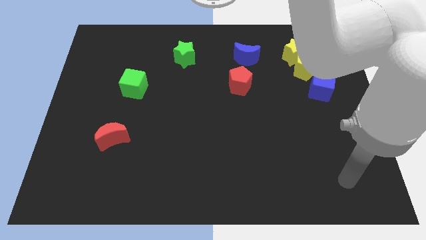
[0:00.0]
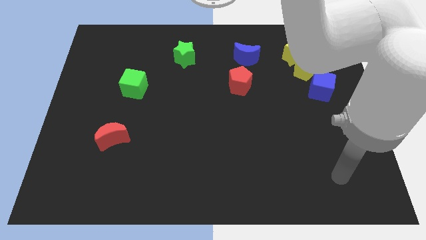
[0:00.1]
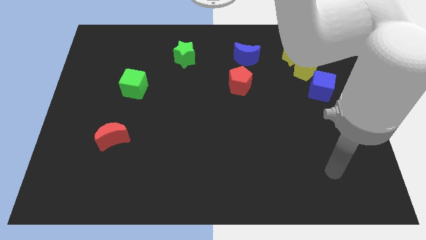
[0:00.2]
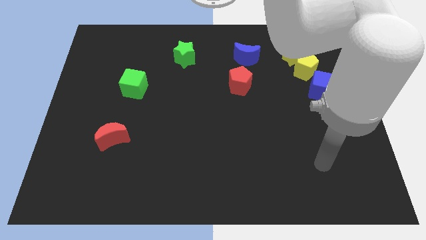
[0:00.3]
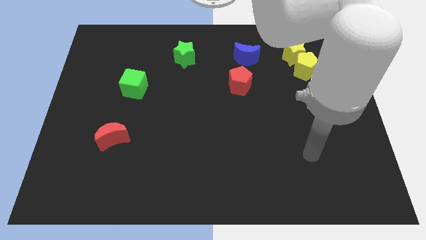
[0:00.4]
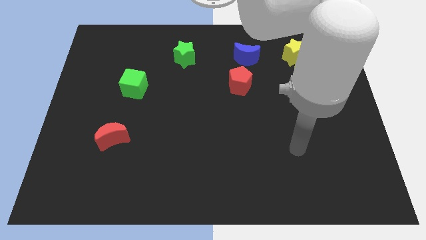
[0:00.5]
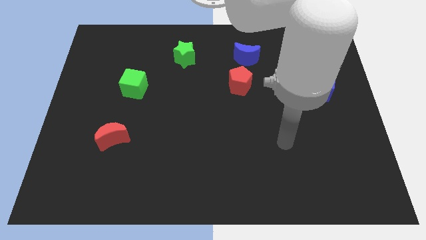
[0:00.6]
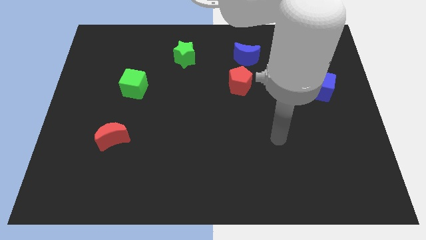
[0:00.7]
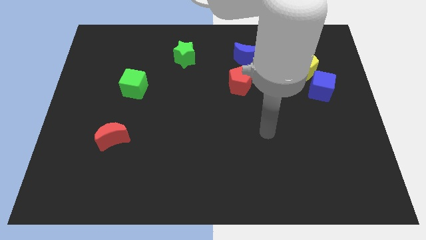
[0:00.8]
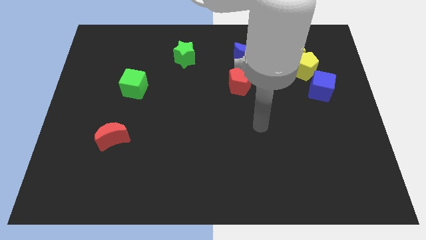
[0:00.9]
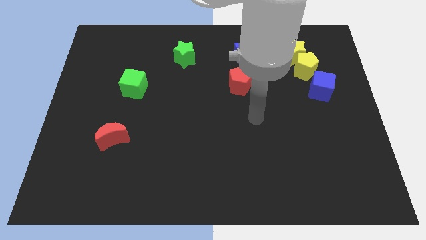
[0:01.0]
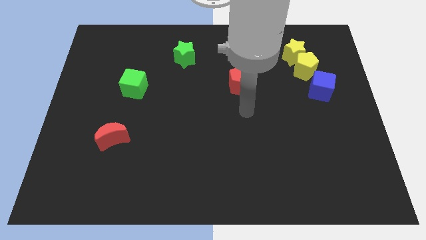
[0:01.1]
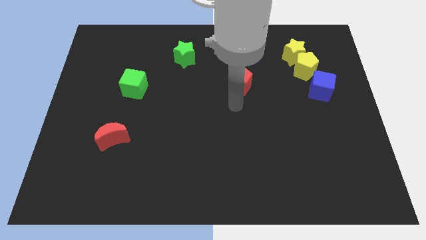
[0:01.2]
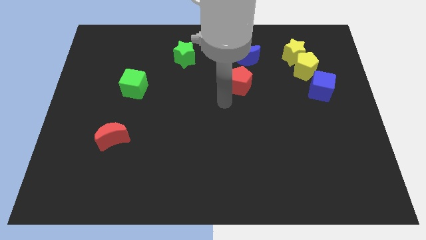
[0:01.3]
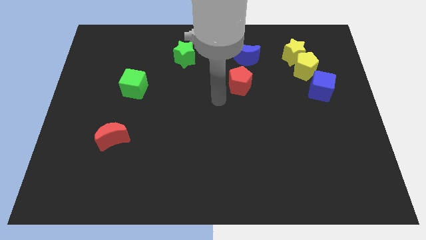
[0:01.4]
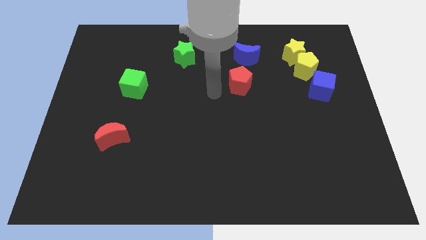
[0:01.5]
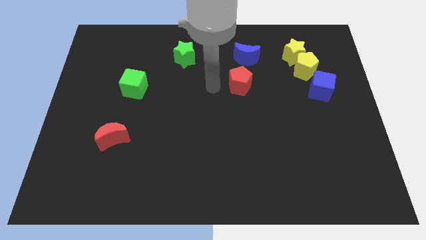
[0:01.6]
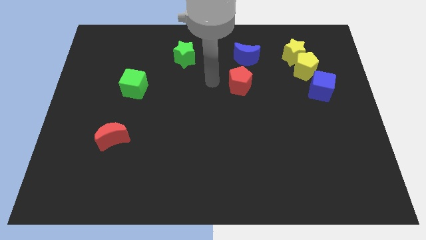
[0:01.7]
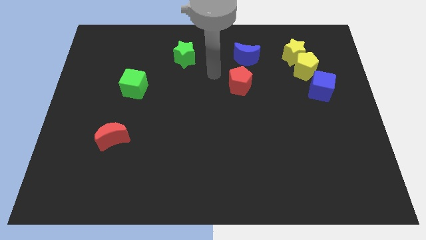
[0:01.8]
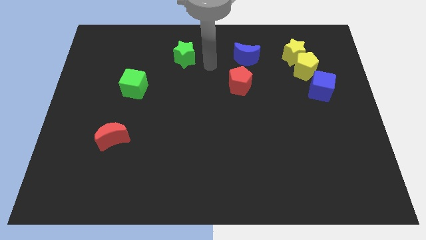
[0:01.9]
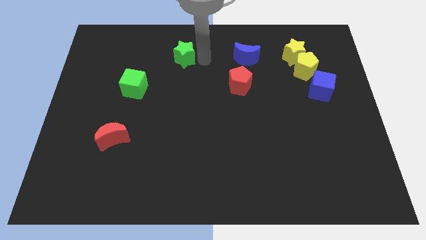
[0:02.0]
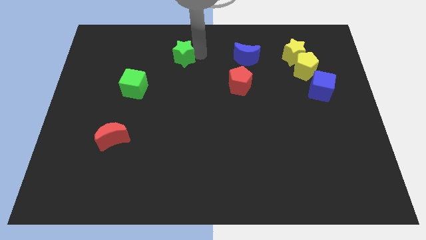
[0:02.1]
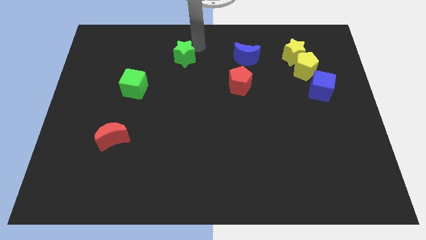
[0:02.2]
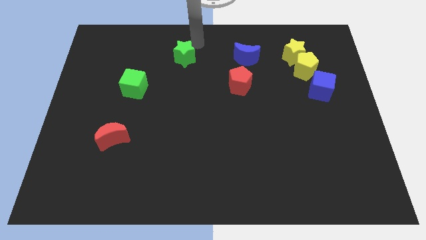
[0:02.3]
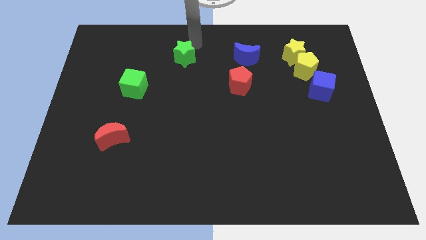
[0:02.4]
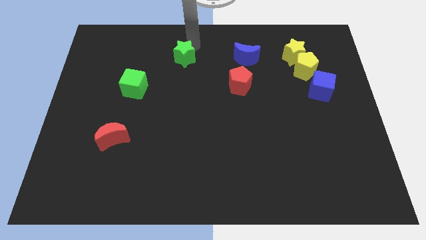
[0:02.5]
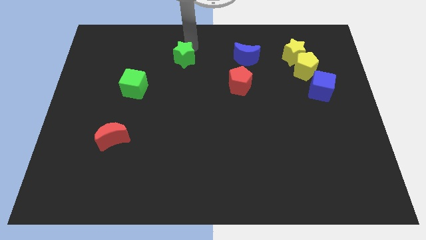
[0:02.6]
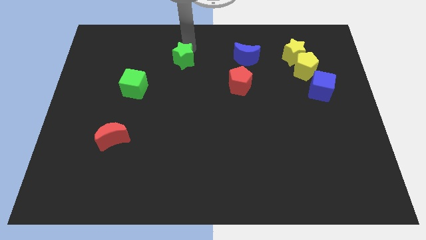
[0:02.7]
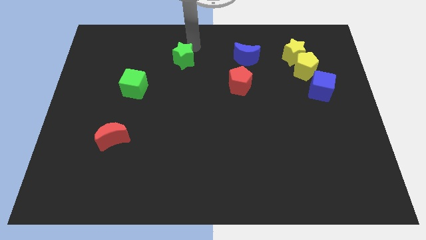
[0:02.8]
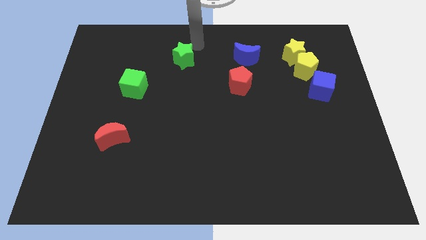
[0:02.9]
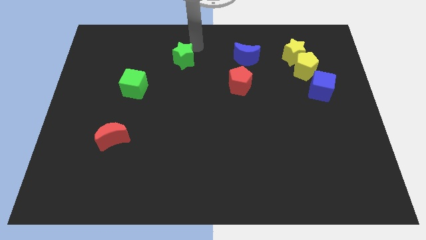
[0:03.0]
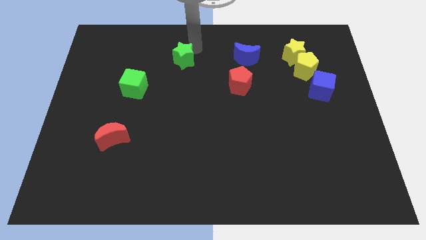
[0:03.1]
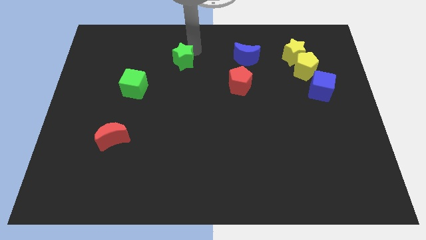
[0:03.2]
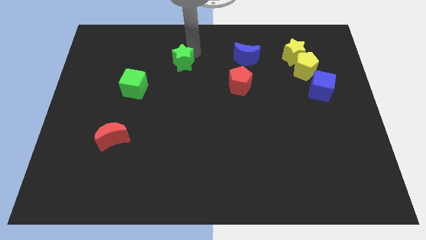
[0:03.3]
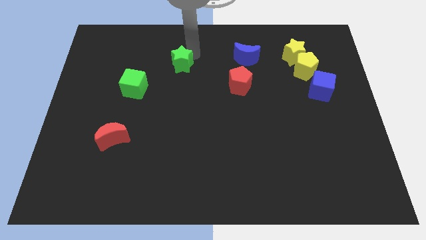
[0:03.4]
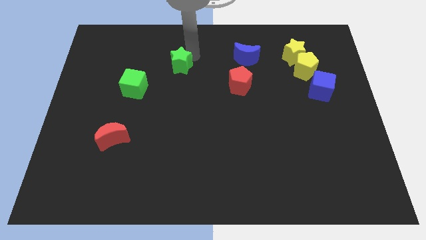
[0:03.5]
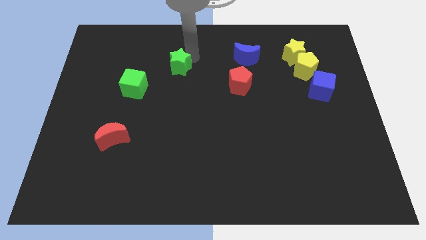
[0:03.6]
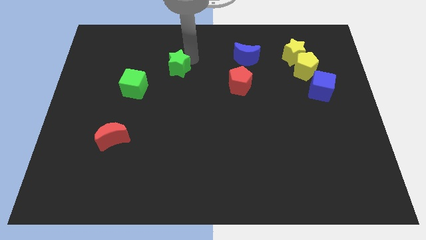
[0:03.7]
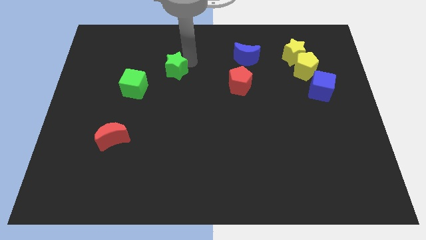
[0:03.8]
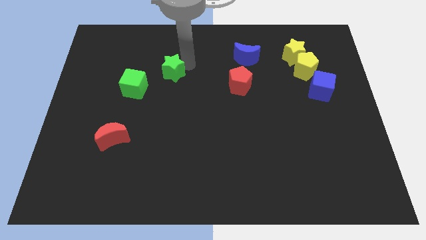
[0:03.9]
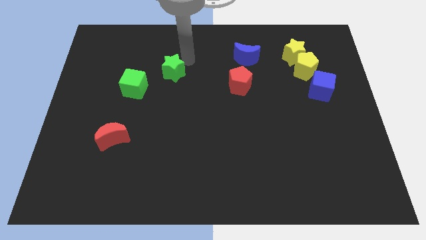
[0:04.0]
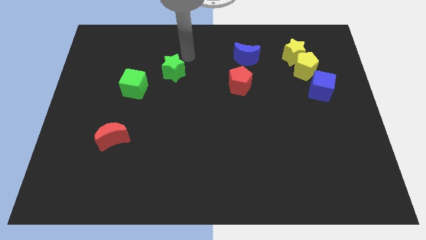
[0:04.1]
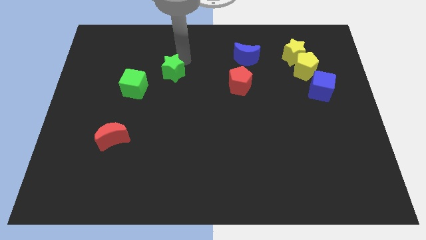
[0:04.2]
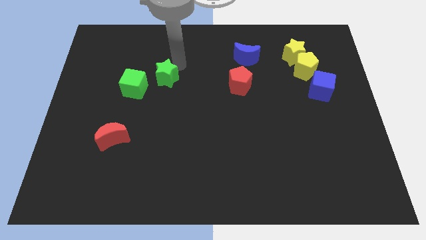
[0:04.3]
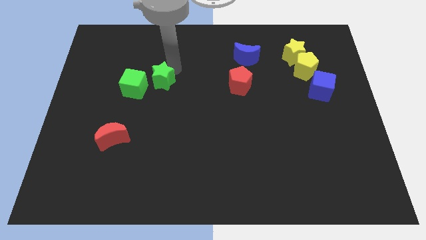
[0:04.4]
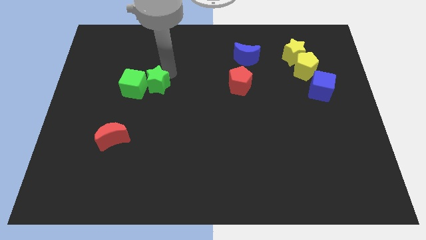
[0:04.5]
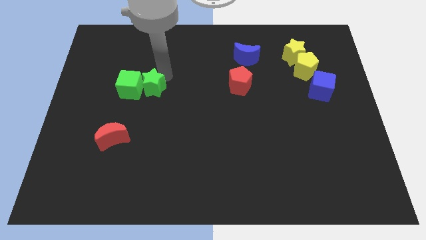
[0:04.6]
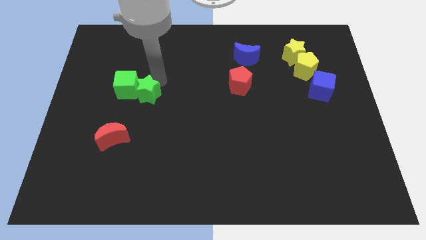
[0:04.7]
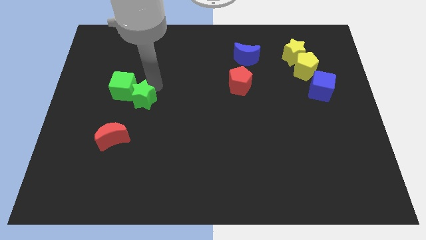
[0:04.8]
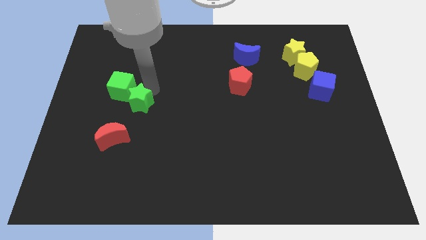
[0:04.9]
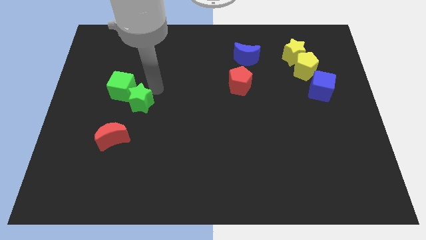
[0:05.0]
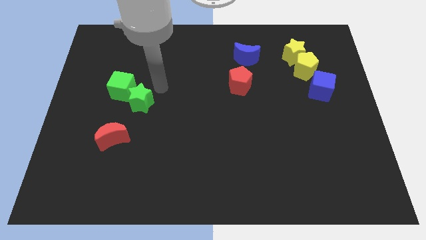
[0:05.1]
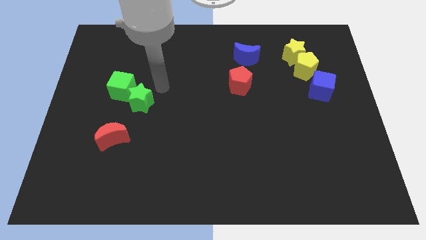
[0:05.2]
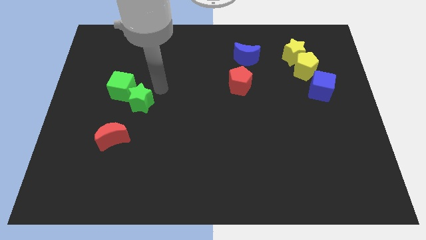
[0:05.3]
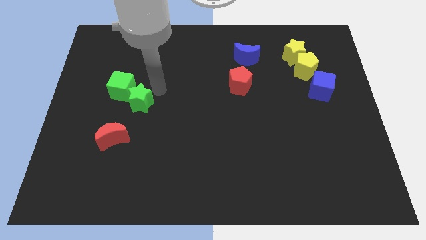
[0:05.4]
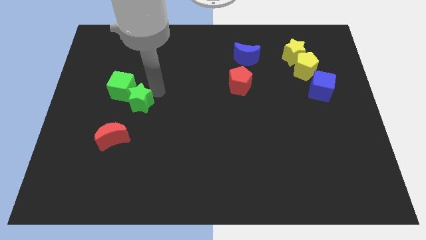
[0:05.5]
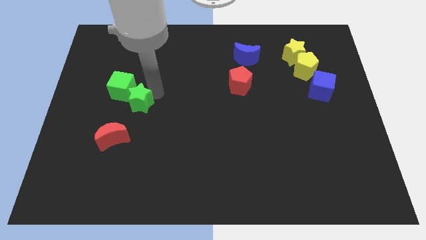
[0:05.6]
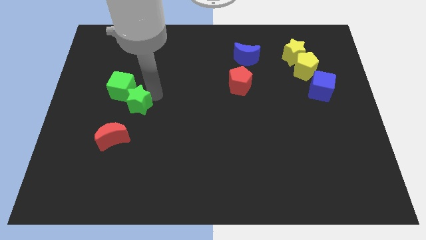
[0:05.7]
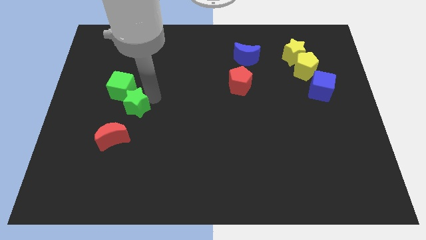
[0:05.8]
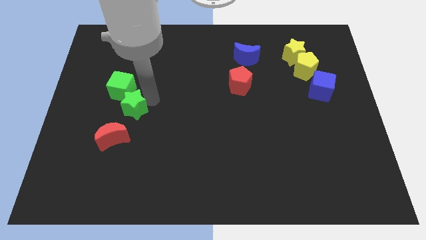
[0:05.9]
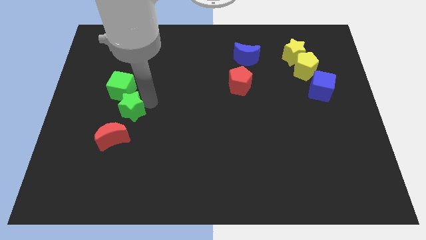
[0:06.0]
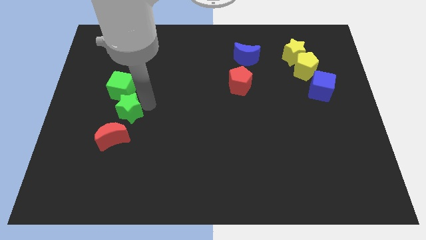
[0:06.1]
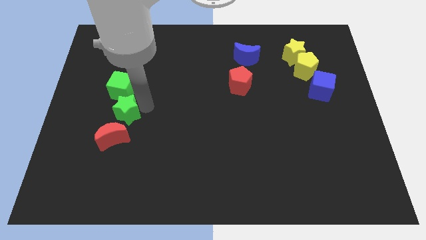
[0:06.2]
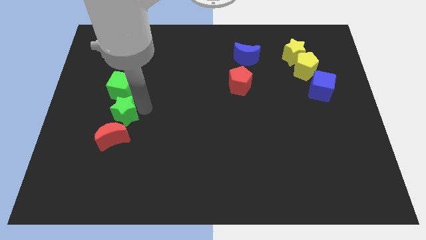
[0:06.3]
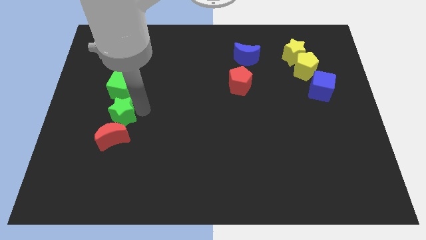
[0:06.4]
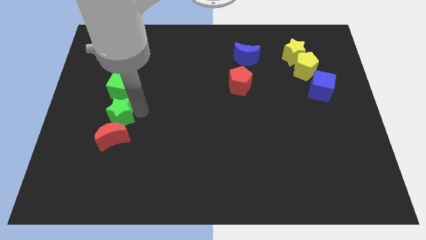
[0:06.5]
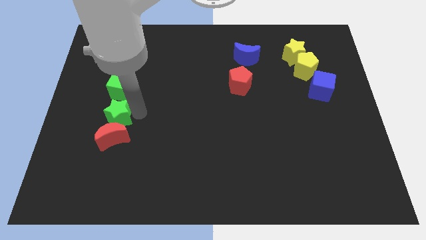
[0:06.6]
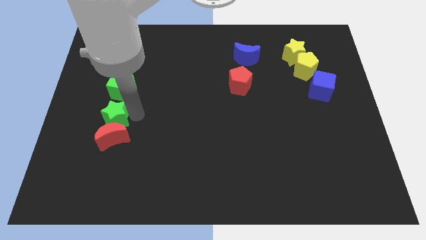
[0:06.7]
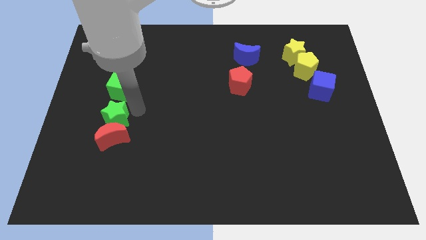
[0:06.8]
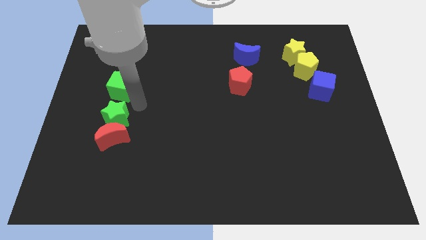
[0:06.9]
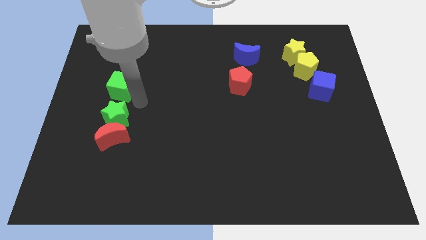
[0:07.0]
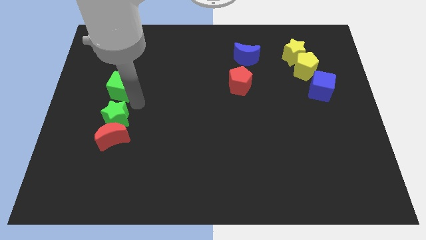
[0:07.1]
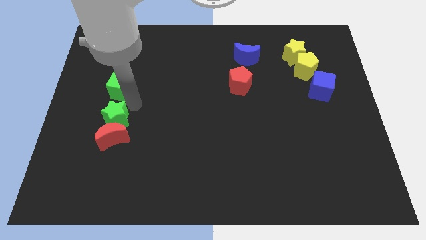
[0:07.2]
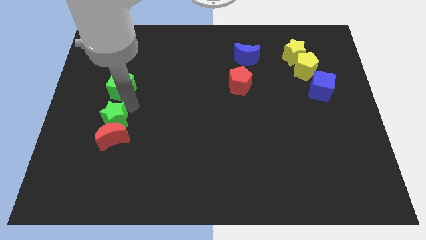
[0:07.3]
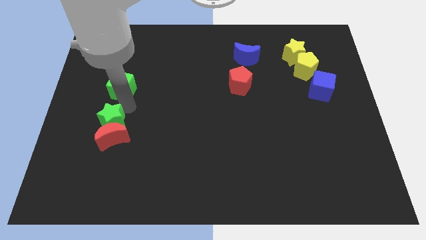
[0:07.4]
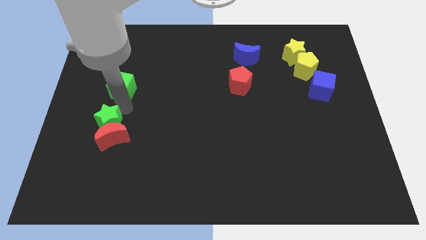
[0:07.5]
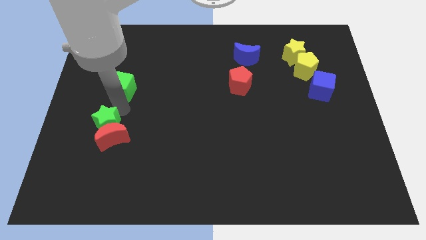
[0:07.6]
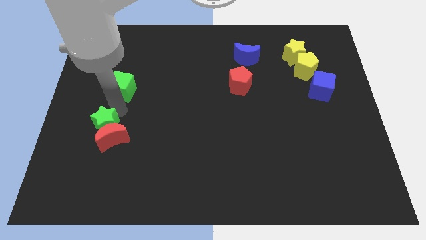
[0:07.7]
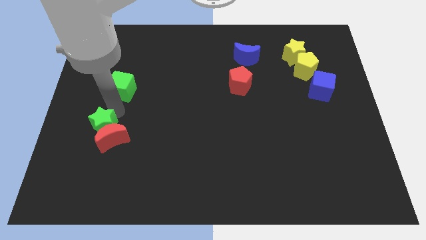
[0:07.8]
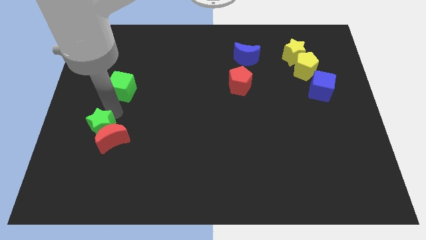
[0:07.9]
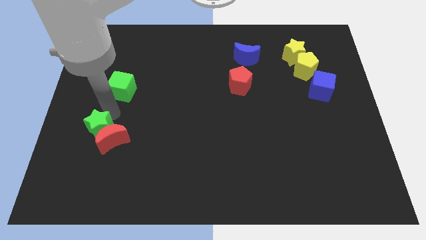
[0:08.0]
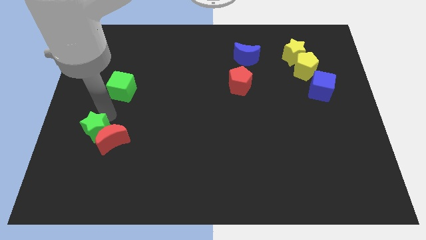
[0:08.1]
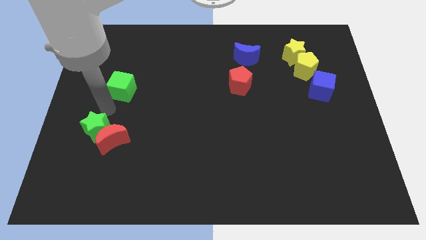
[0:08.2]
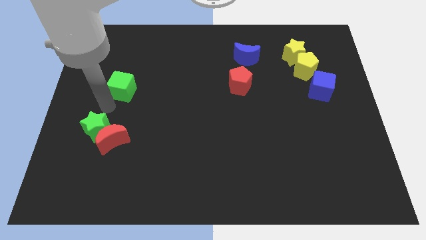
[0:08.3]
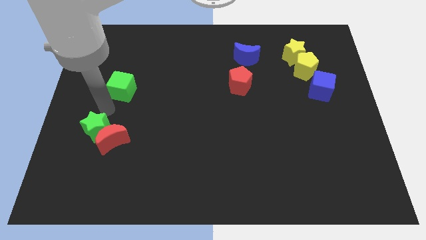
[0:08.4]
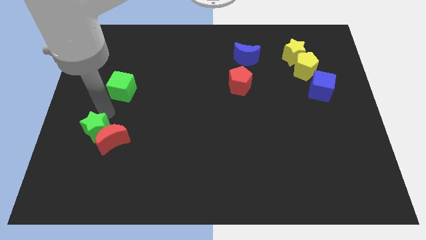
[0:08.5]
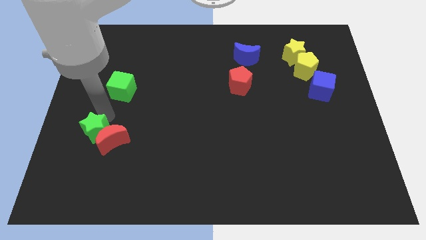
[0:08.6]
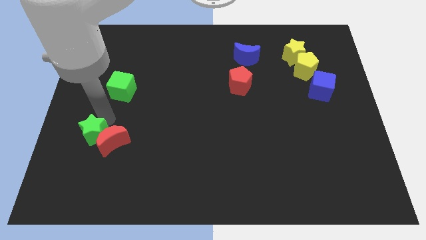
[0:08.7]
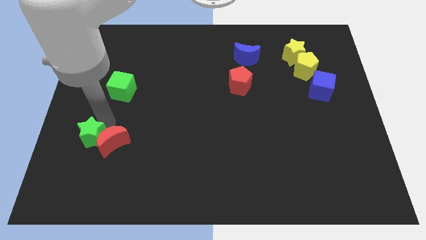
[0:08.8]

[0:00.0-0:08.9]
put the green star diagonally down and to the left of the red moon
